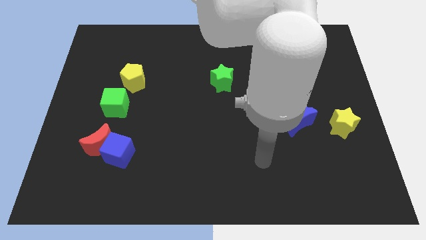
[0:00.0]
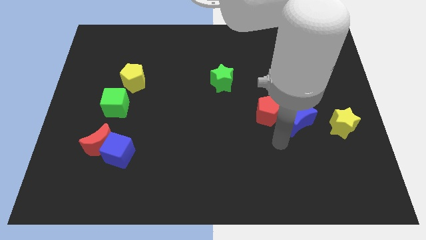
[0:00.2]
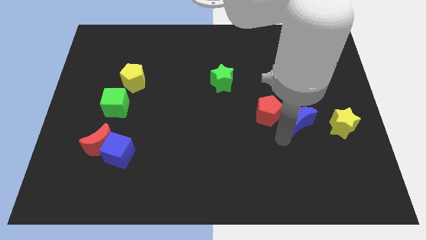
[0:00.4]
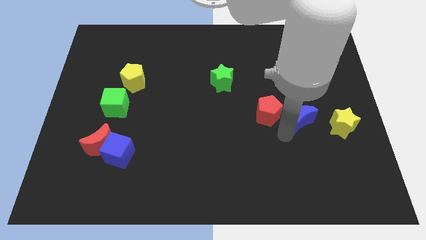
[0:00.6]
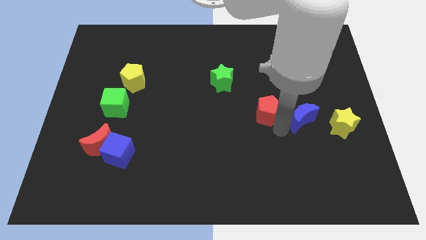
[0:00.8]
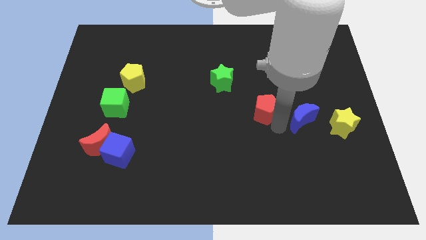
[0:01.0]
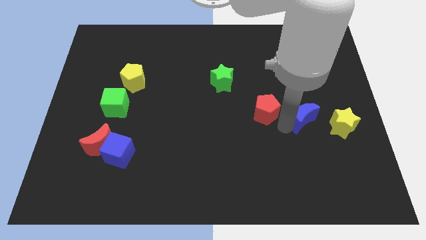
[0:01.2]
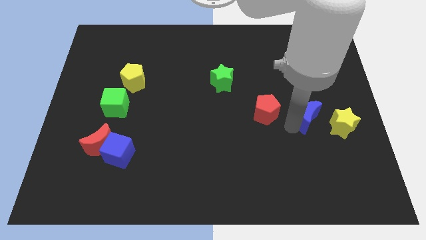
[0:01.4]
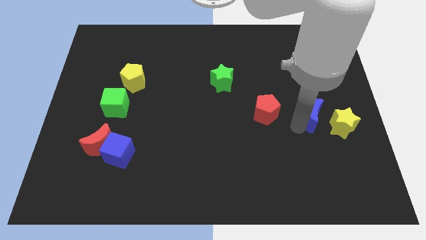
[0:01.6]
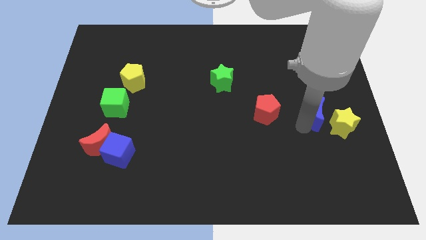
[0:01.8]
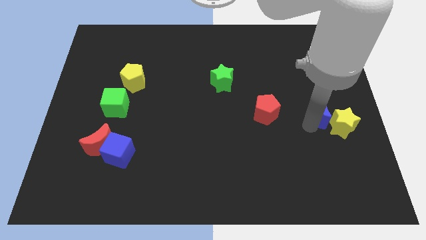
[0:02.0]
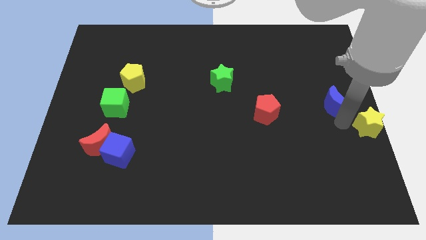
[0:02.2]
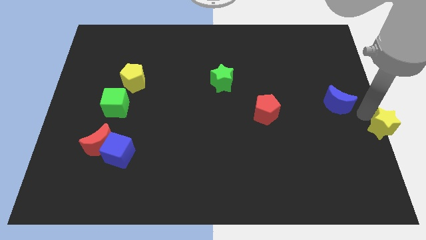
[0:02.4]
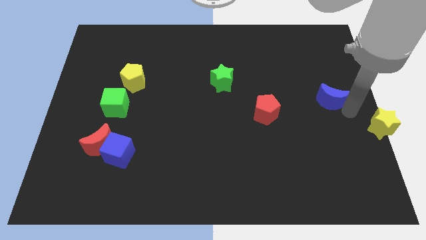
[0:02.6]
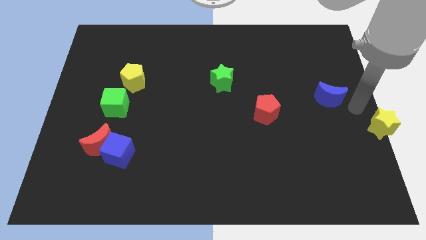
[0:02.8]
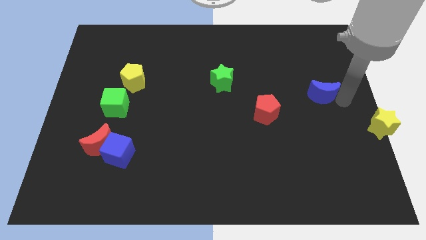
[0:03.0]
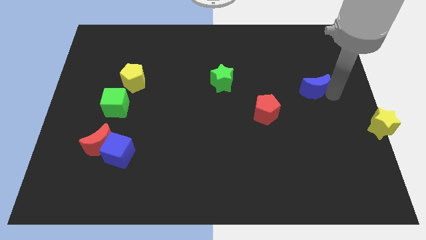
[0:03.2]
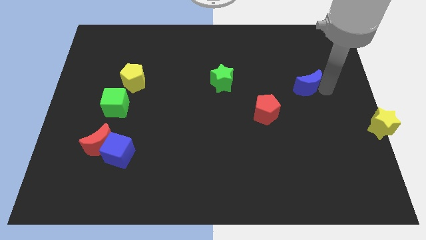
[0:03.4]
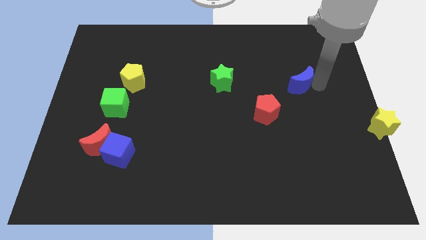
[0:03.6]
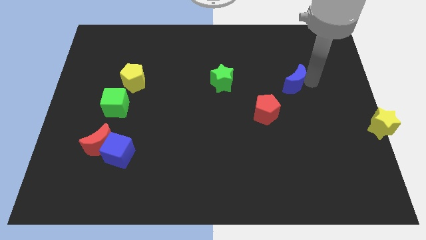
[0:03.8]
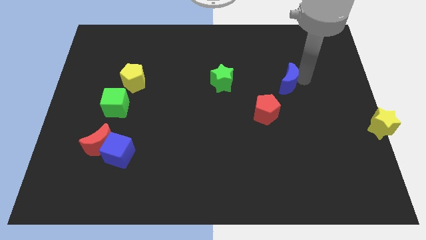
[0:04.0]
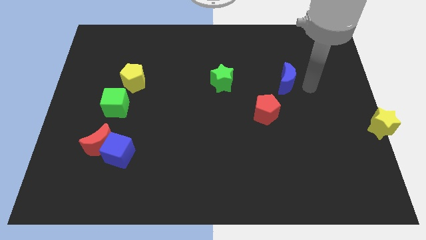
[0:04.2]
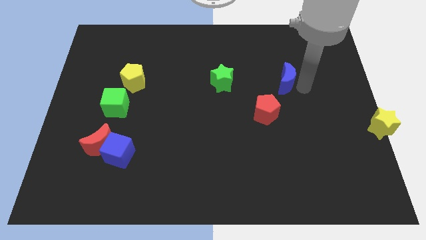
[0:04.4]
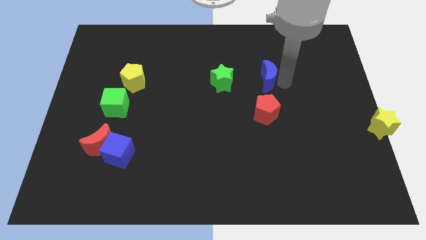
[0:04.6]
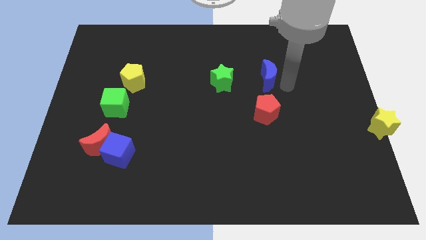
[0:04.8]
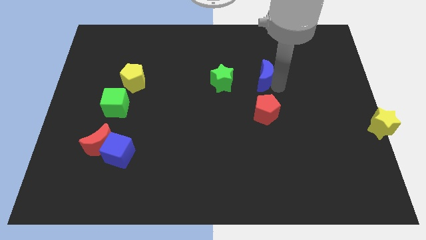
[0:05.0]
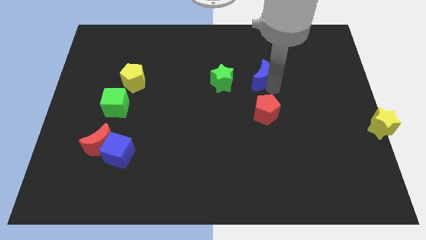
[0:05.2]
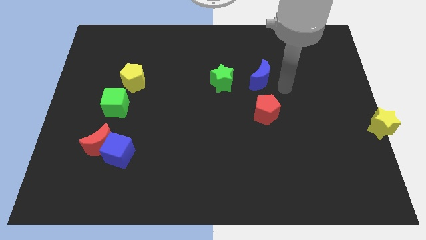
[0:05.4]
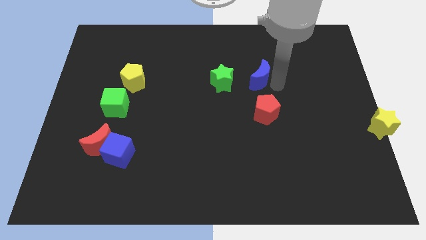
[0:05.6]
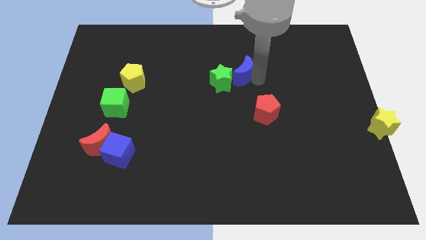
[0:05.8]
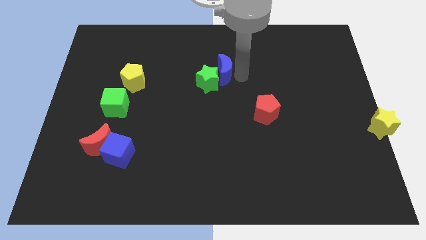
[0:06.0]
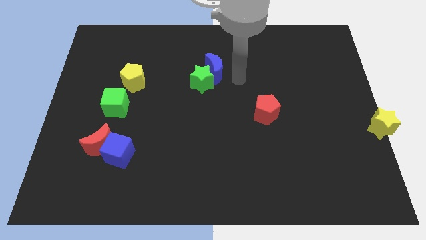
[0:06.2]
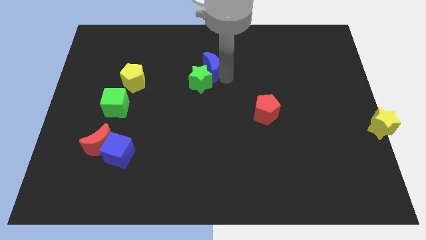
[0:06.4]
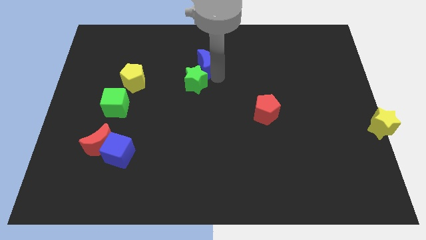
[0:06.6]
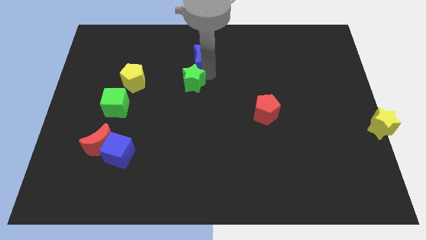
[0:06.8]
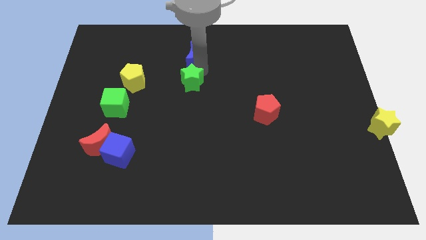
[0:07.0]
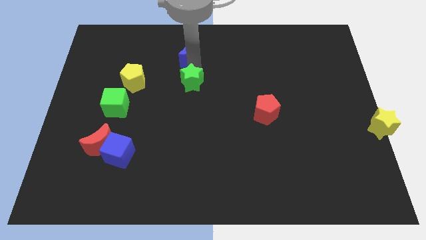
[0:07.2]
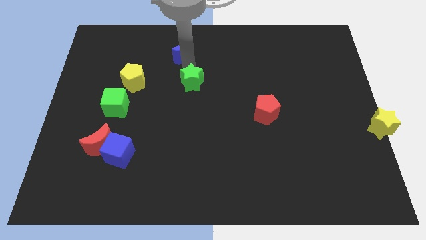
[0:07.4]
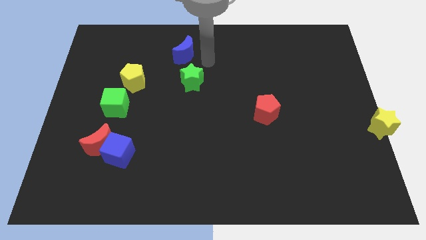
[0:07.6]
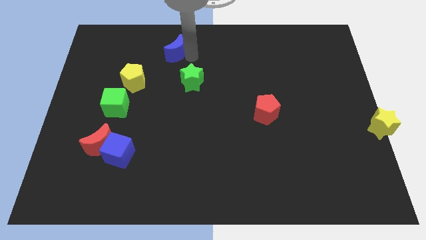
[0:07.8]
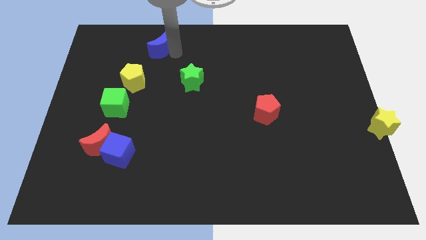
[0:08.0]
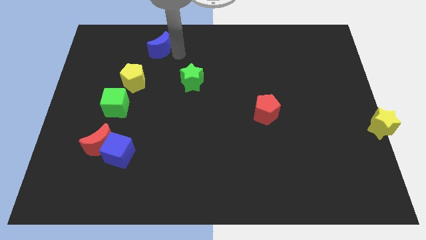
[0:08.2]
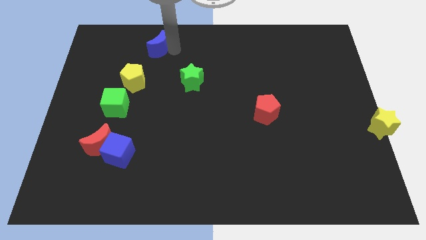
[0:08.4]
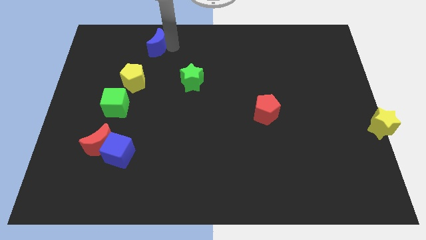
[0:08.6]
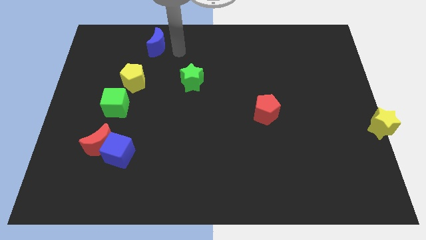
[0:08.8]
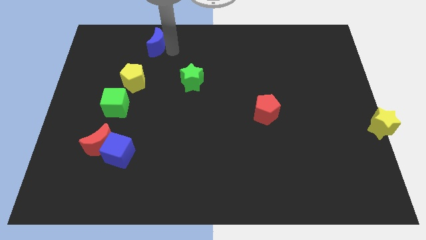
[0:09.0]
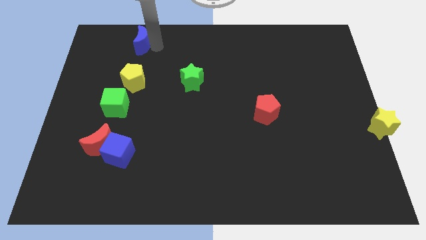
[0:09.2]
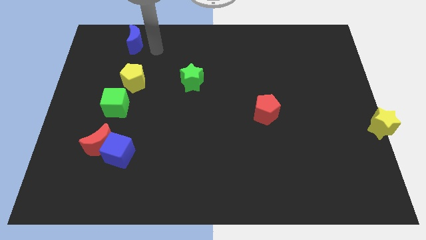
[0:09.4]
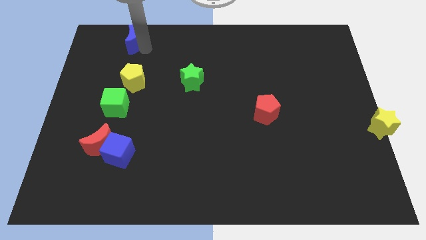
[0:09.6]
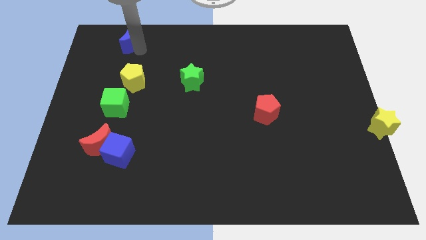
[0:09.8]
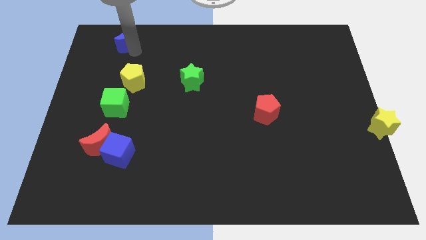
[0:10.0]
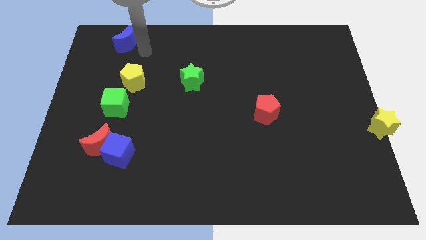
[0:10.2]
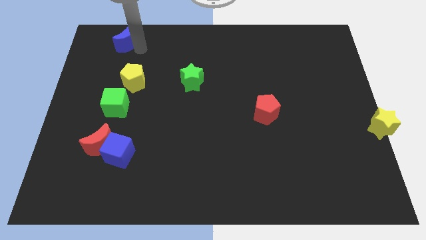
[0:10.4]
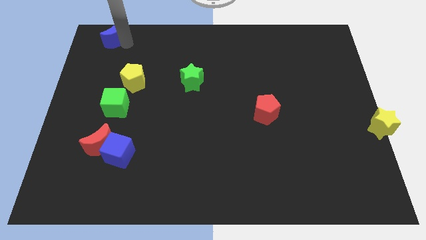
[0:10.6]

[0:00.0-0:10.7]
slide the blue moon to the top left

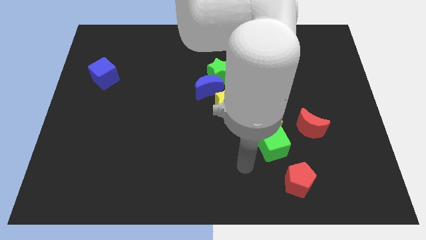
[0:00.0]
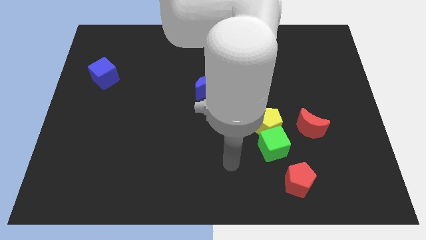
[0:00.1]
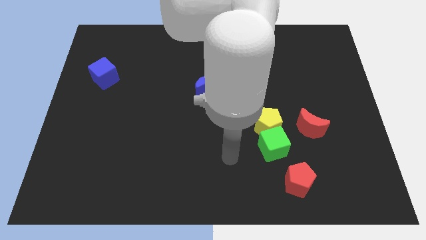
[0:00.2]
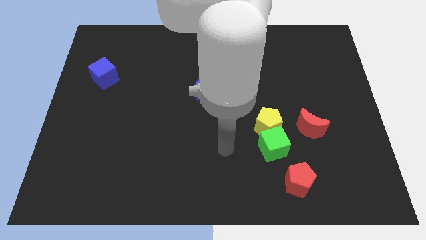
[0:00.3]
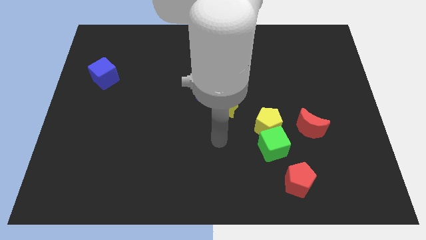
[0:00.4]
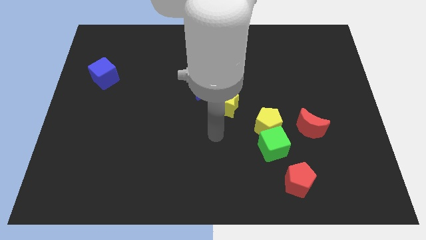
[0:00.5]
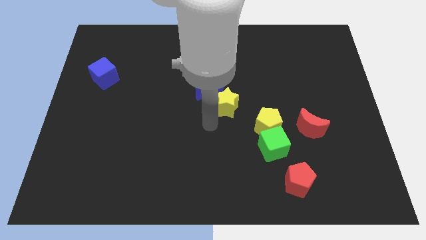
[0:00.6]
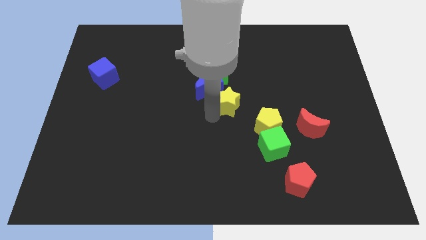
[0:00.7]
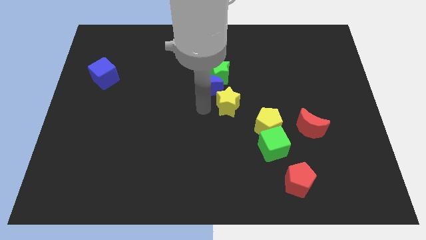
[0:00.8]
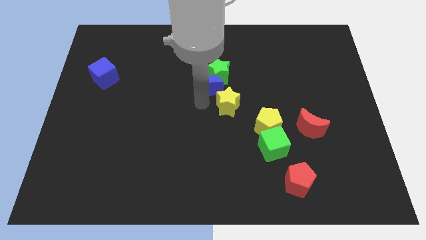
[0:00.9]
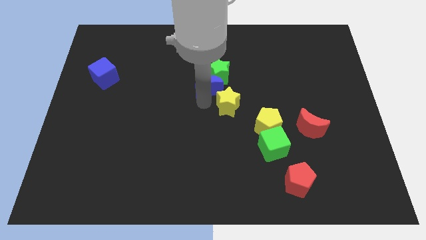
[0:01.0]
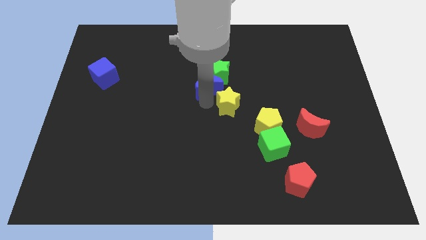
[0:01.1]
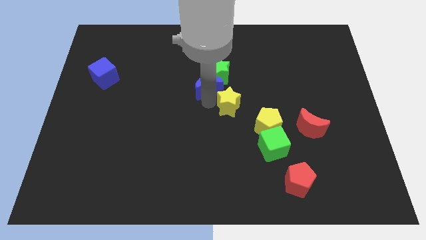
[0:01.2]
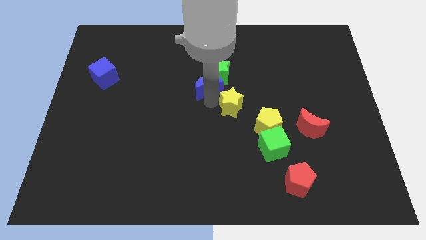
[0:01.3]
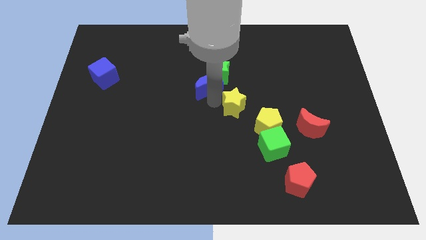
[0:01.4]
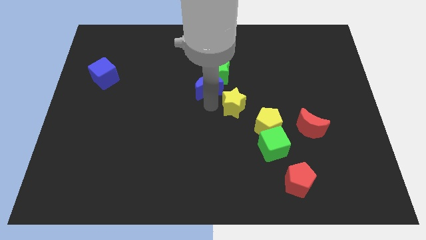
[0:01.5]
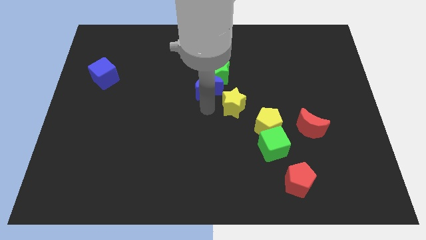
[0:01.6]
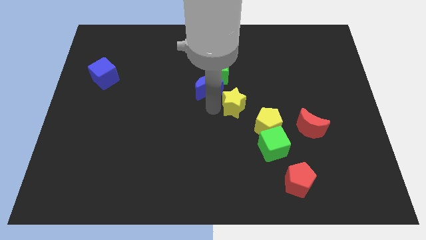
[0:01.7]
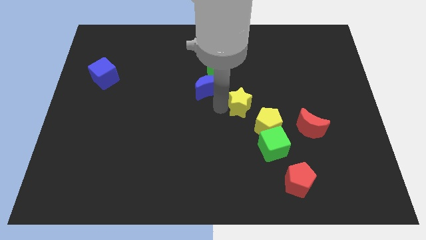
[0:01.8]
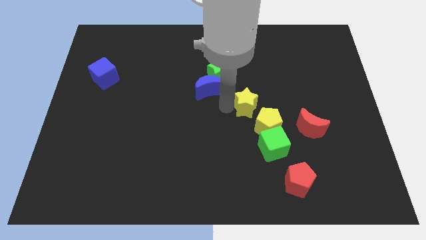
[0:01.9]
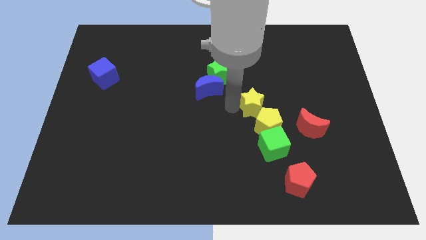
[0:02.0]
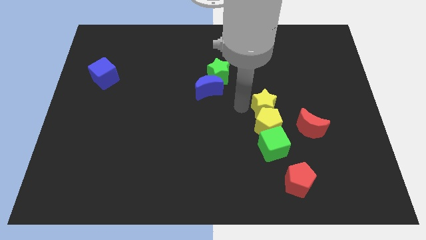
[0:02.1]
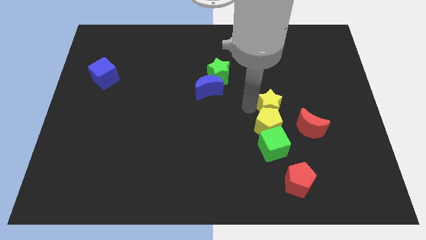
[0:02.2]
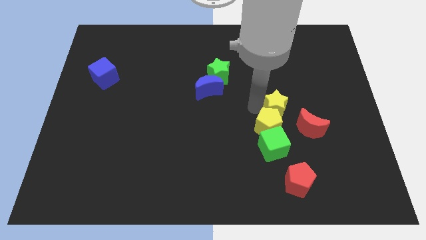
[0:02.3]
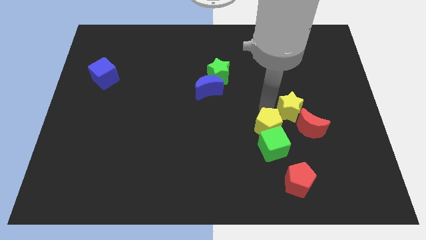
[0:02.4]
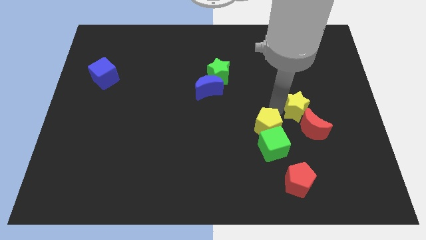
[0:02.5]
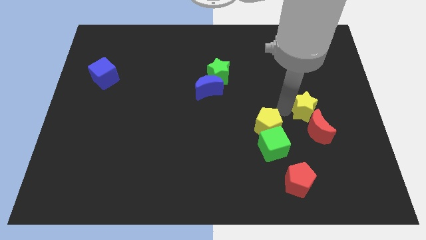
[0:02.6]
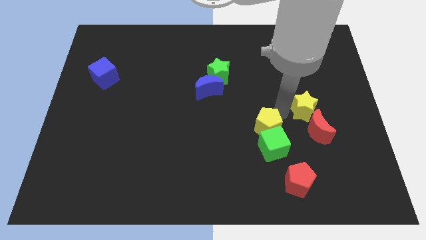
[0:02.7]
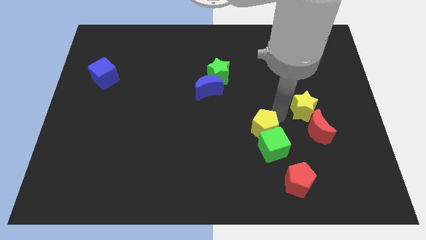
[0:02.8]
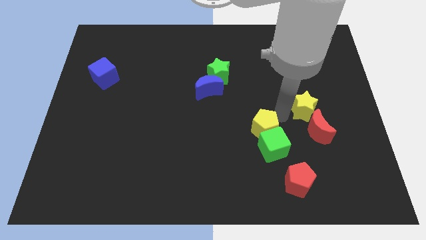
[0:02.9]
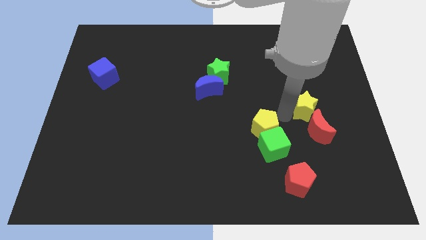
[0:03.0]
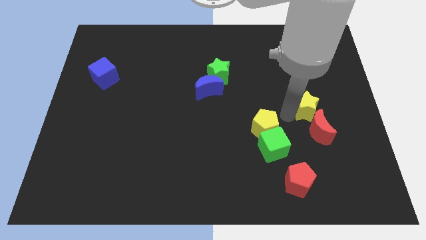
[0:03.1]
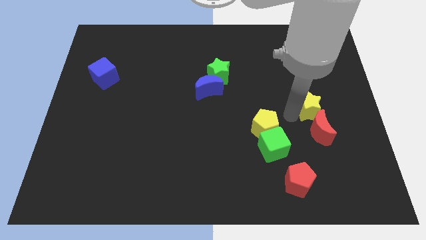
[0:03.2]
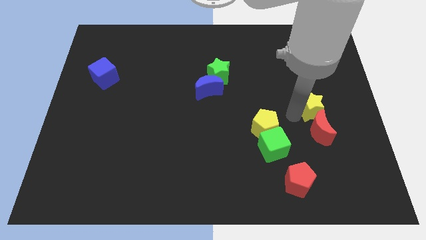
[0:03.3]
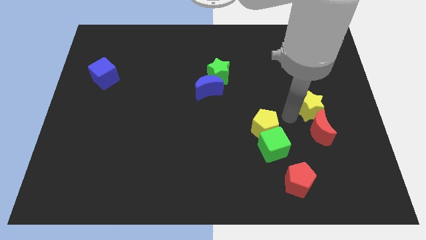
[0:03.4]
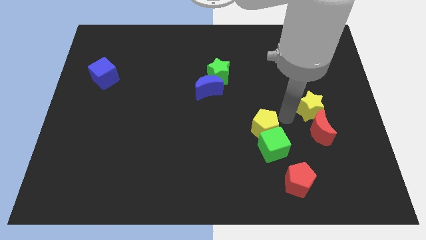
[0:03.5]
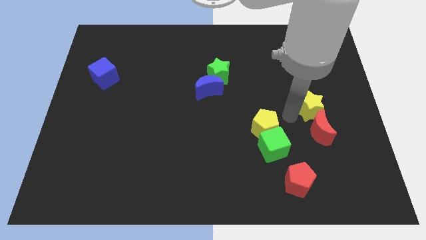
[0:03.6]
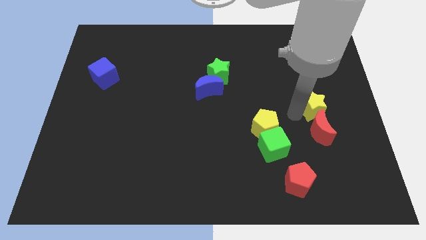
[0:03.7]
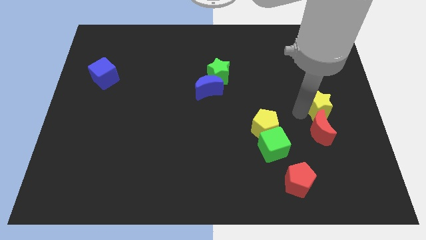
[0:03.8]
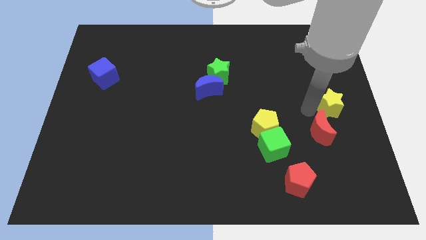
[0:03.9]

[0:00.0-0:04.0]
put the yellow star to the right side of the board
